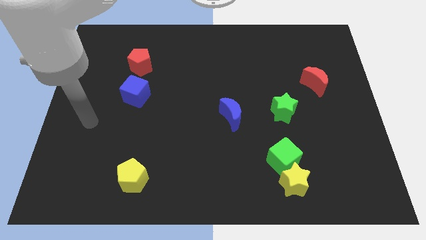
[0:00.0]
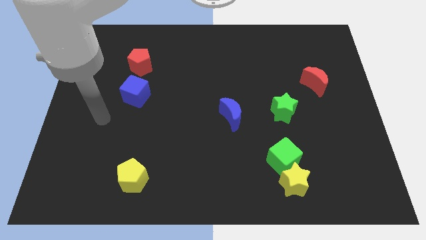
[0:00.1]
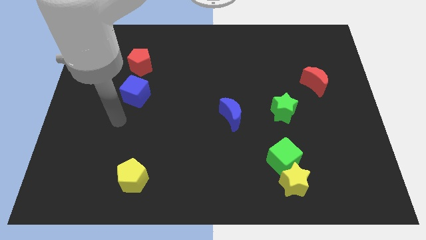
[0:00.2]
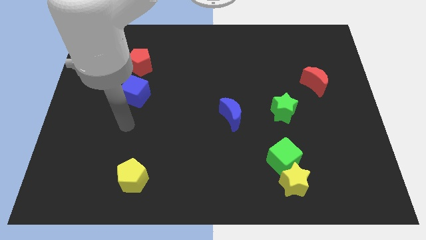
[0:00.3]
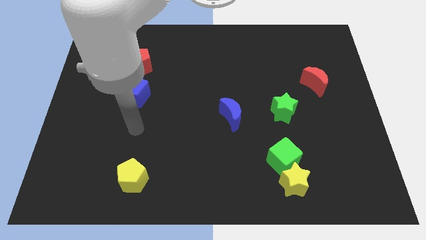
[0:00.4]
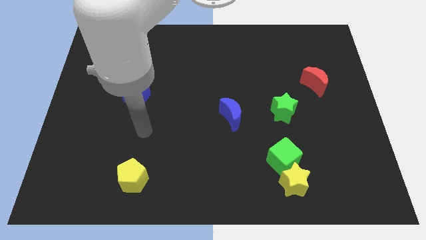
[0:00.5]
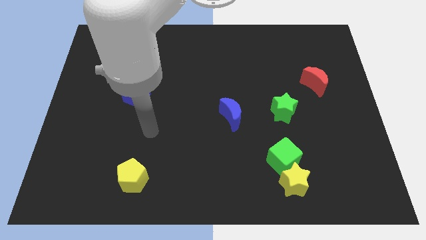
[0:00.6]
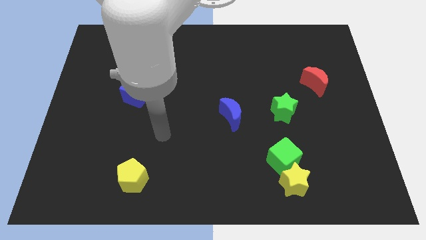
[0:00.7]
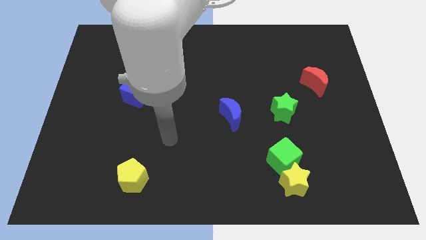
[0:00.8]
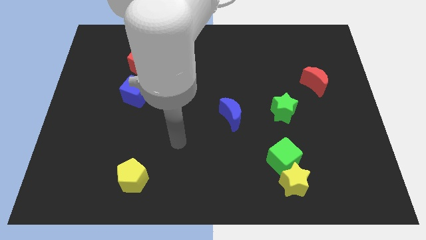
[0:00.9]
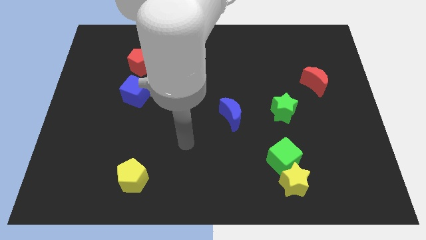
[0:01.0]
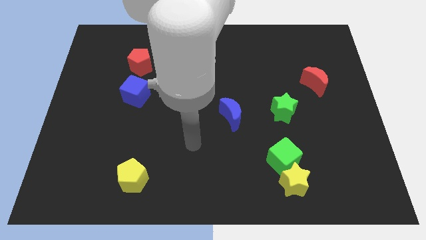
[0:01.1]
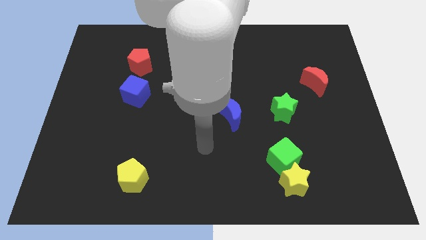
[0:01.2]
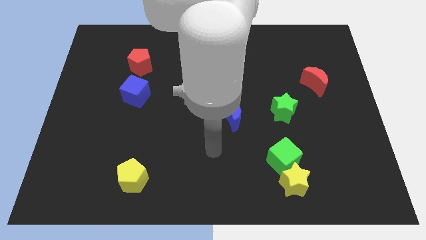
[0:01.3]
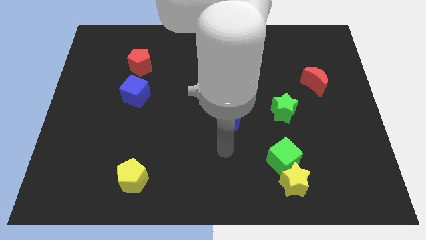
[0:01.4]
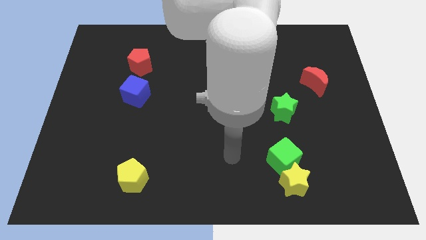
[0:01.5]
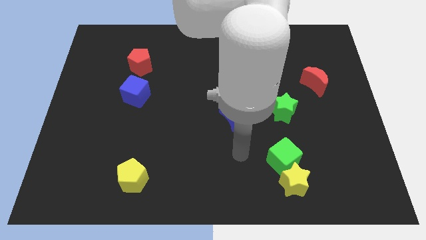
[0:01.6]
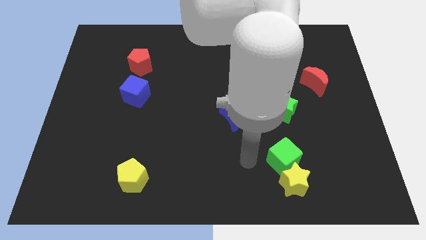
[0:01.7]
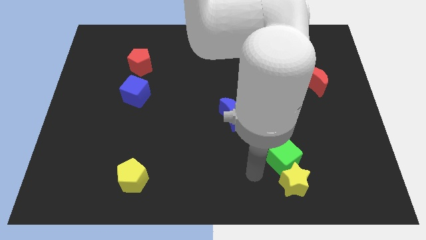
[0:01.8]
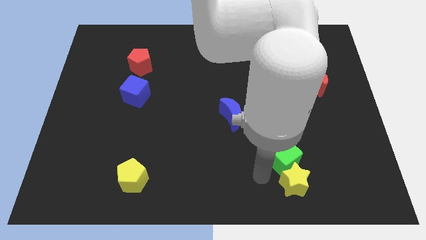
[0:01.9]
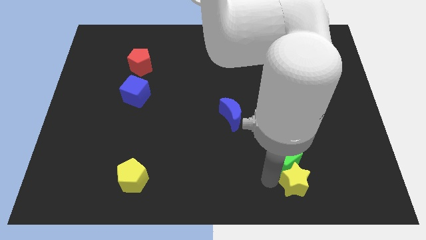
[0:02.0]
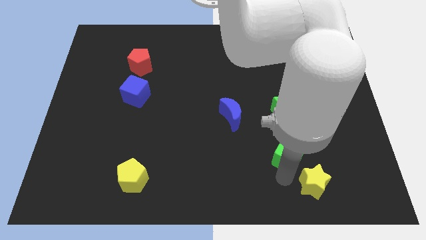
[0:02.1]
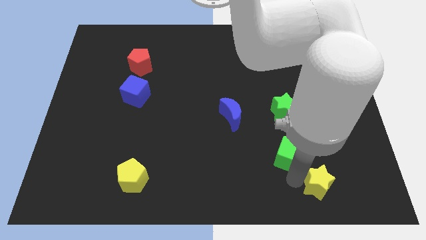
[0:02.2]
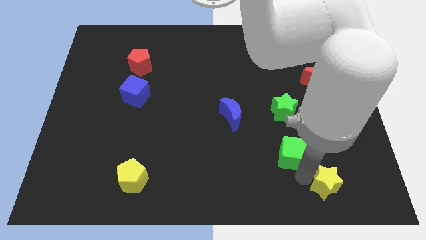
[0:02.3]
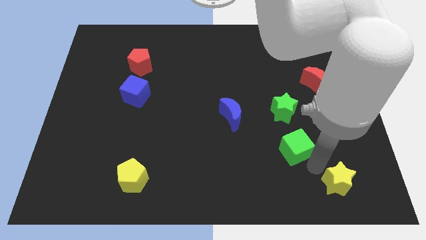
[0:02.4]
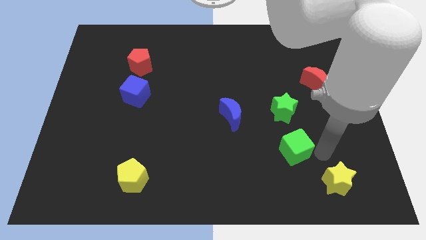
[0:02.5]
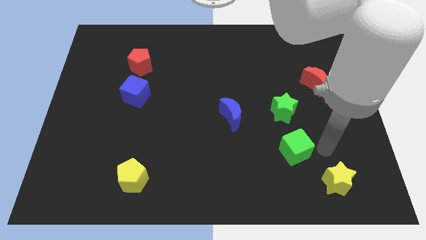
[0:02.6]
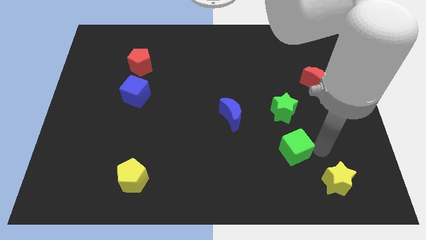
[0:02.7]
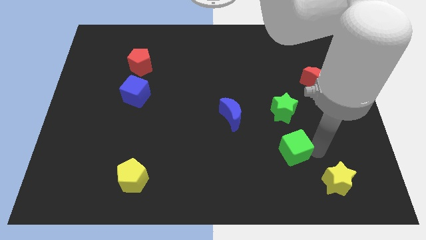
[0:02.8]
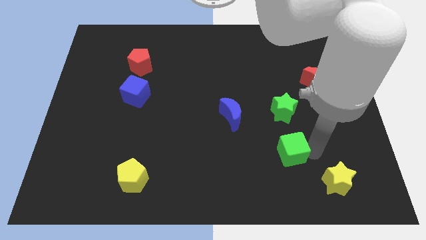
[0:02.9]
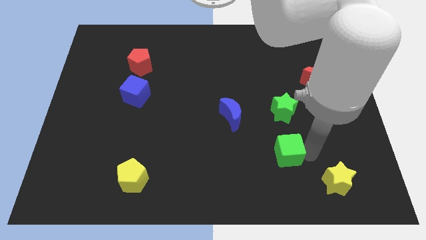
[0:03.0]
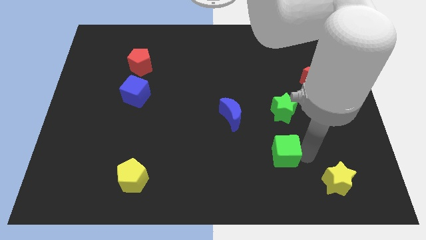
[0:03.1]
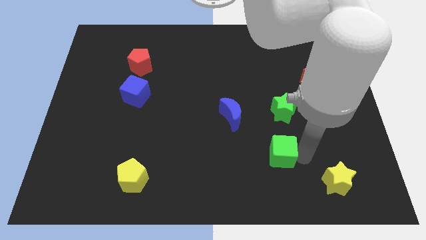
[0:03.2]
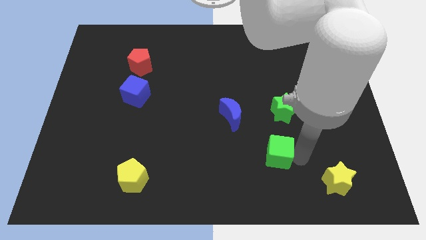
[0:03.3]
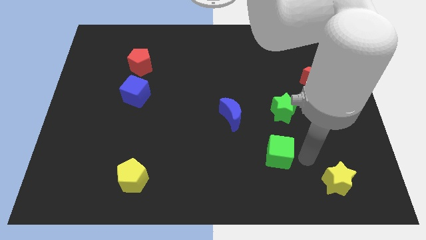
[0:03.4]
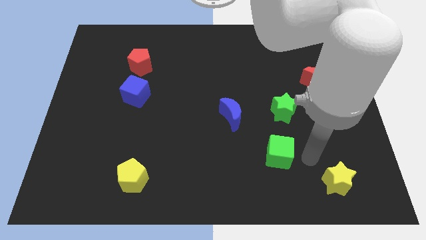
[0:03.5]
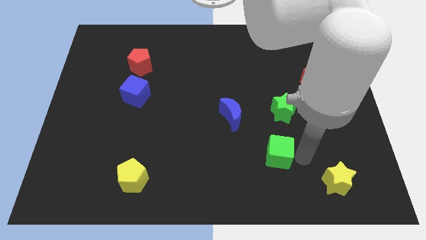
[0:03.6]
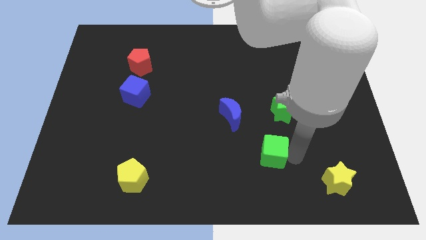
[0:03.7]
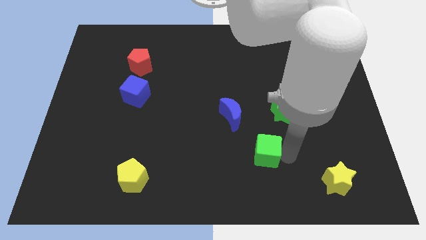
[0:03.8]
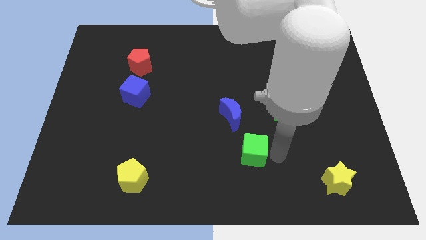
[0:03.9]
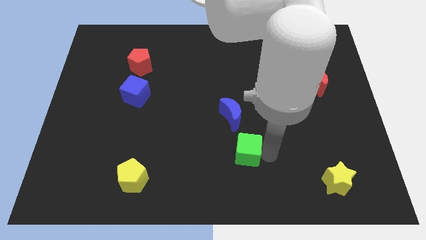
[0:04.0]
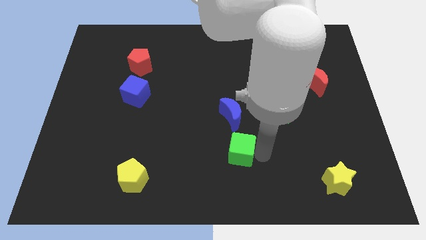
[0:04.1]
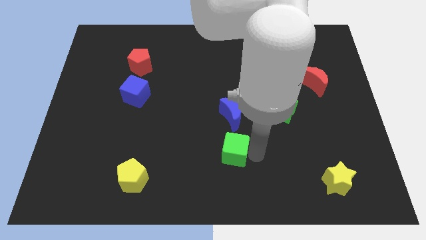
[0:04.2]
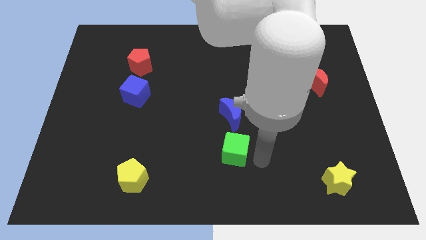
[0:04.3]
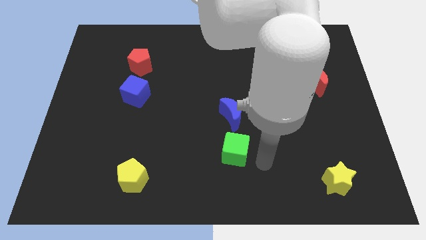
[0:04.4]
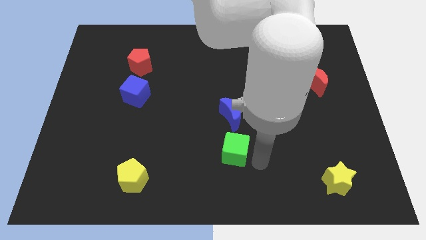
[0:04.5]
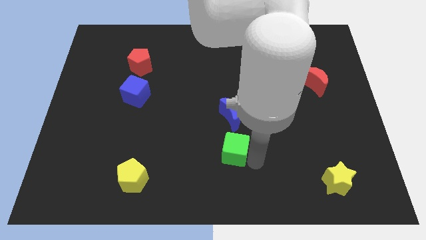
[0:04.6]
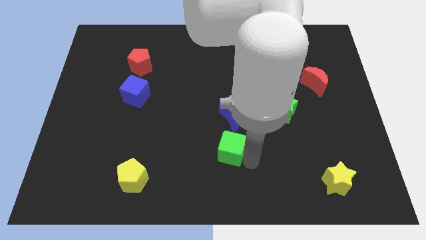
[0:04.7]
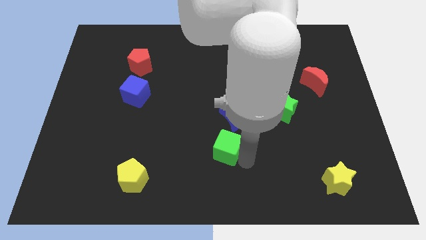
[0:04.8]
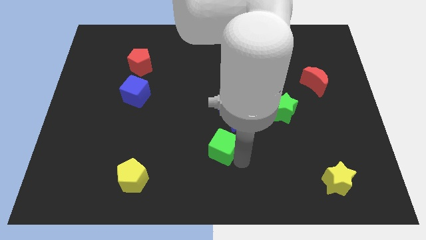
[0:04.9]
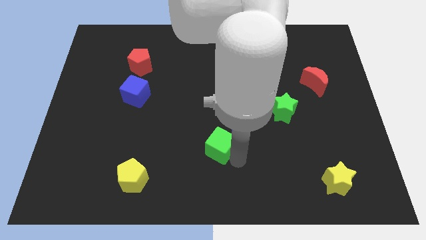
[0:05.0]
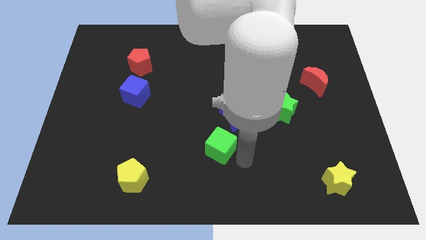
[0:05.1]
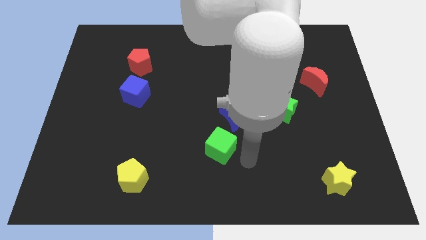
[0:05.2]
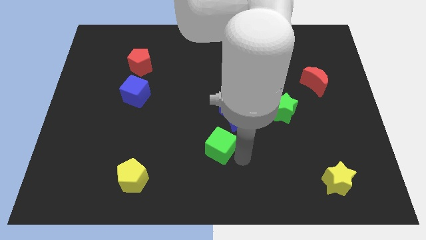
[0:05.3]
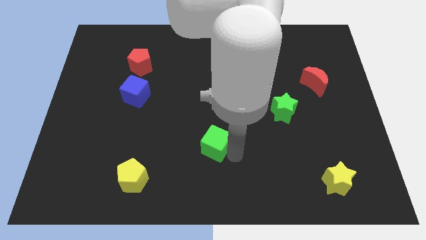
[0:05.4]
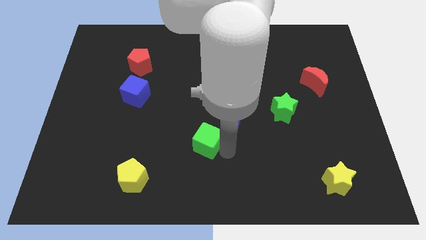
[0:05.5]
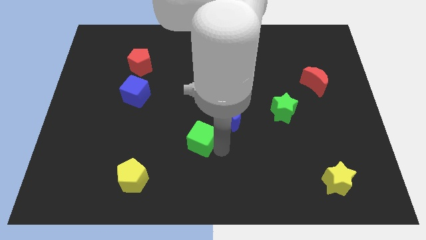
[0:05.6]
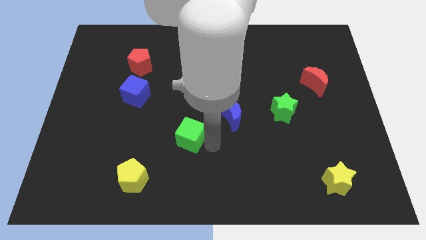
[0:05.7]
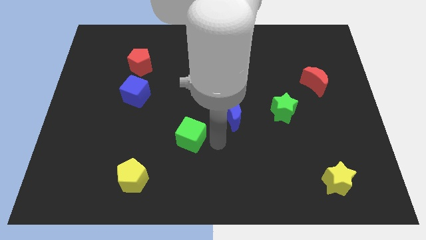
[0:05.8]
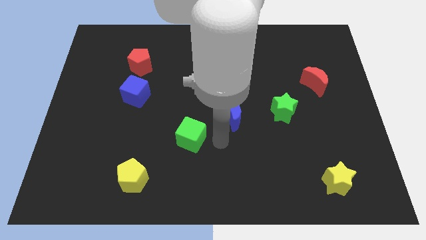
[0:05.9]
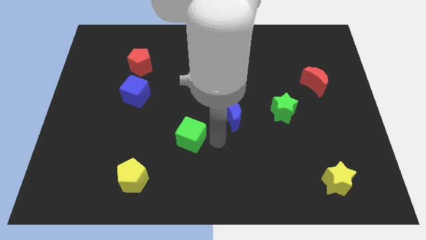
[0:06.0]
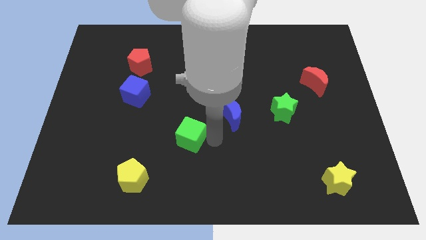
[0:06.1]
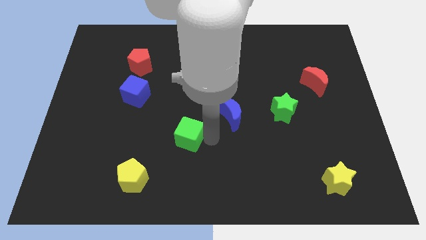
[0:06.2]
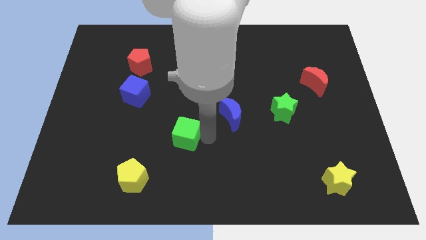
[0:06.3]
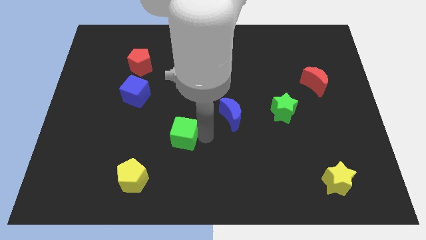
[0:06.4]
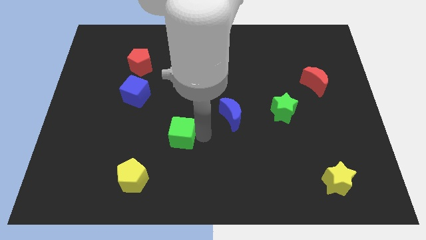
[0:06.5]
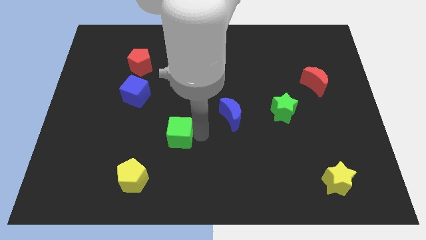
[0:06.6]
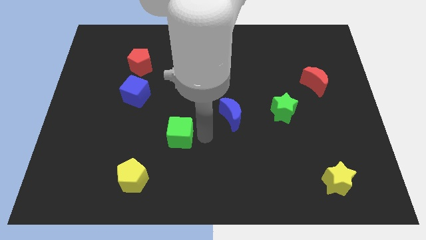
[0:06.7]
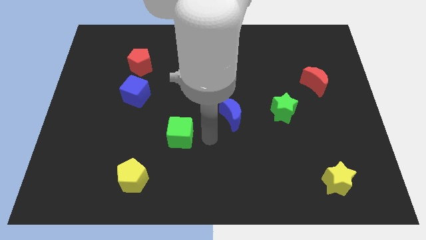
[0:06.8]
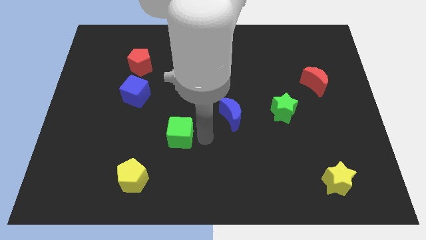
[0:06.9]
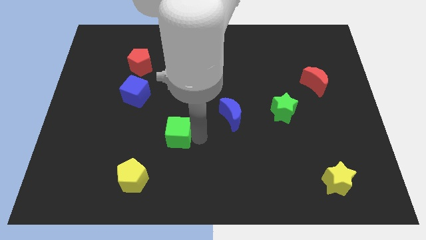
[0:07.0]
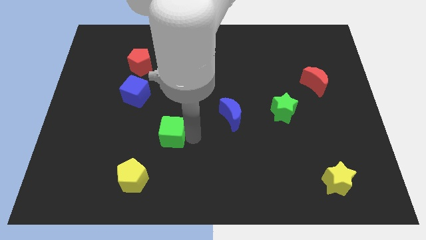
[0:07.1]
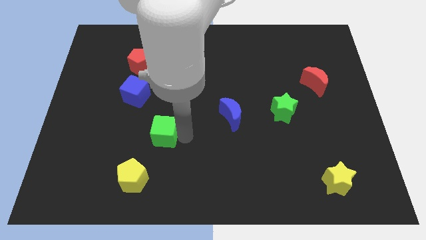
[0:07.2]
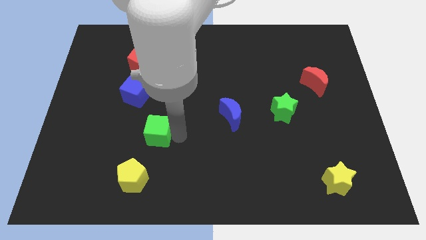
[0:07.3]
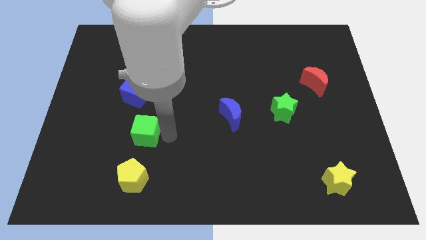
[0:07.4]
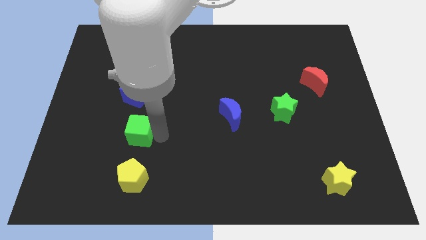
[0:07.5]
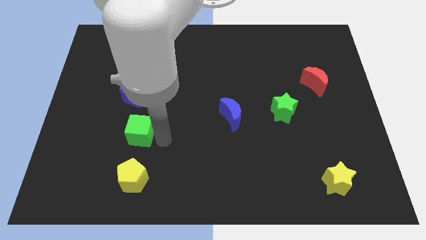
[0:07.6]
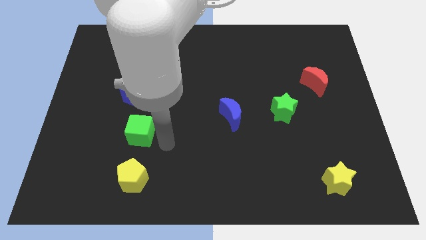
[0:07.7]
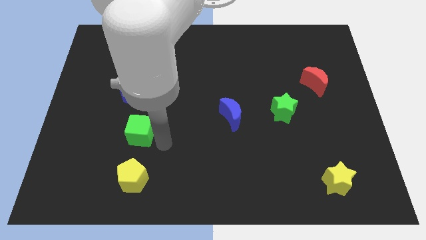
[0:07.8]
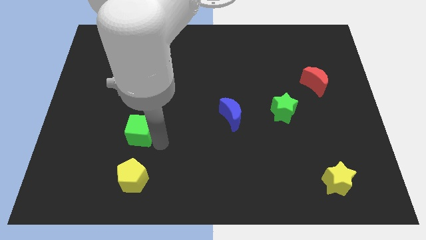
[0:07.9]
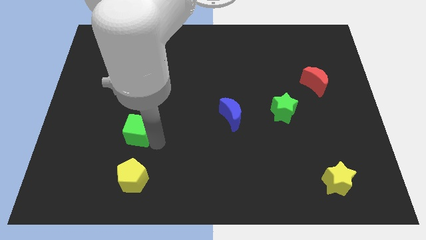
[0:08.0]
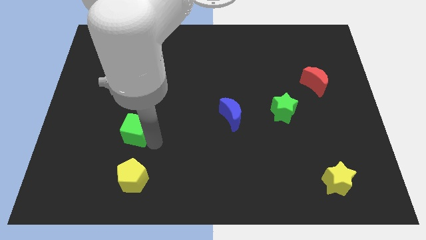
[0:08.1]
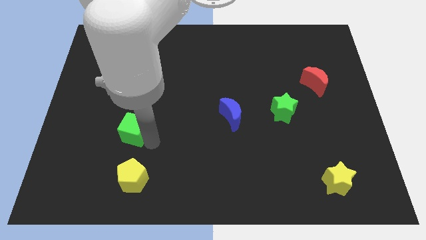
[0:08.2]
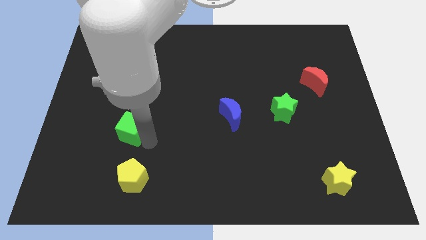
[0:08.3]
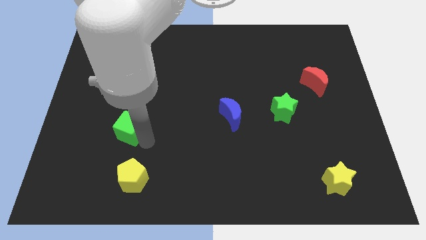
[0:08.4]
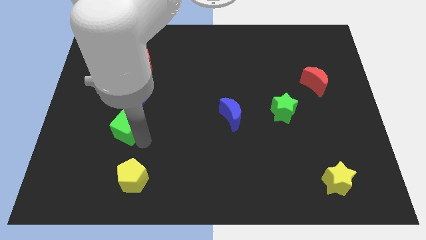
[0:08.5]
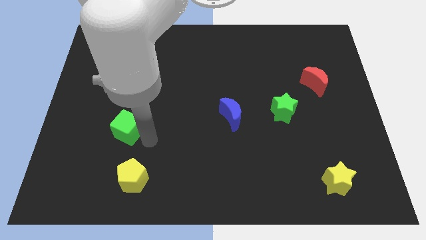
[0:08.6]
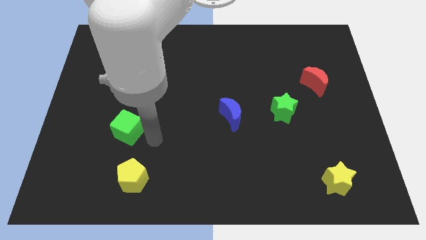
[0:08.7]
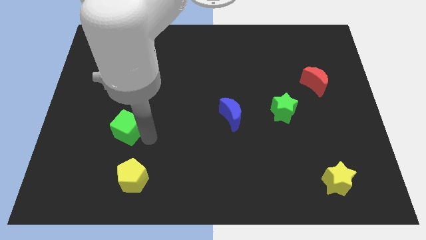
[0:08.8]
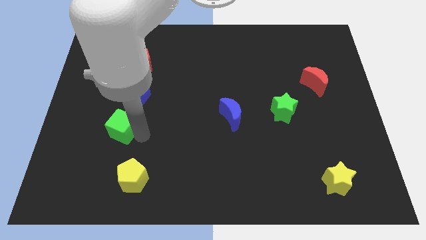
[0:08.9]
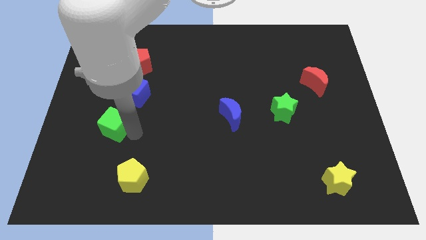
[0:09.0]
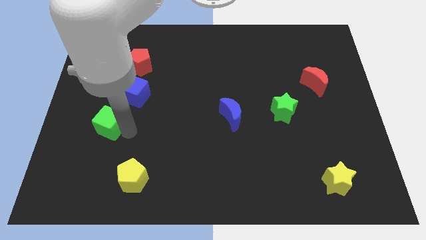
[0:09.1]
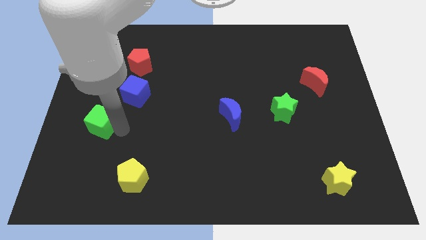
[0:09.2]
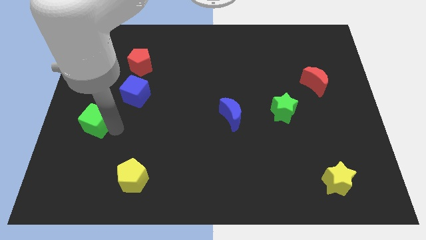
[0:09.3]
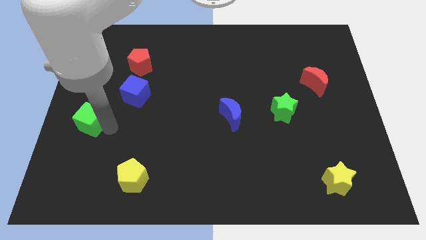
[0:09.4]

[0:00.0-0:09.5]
move the green cube to the center left
